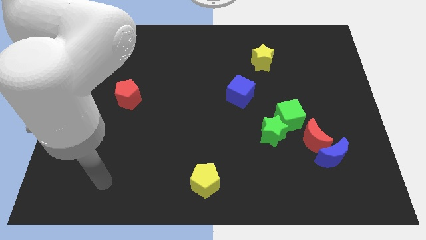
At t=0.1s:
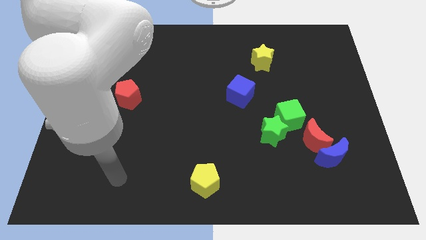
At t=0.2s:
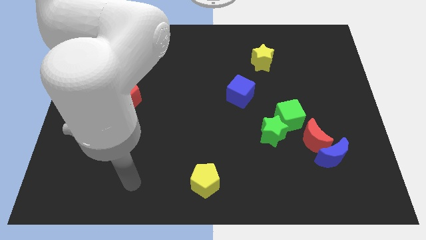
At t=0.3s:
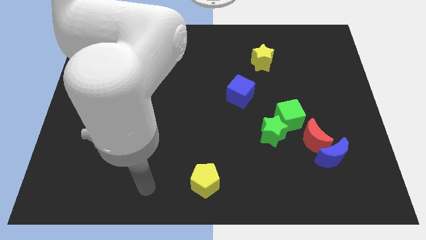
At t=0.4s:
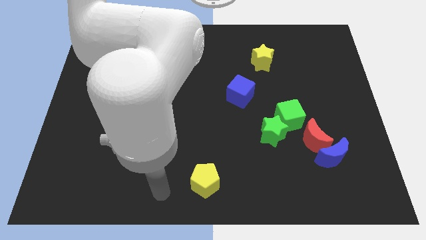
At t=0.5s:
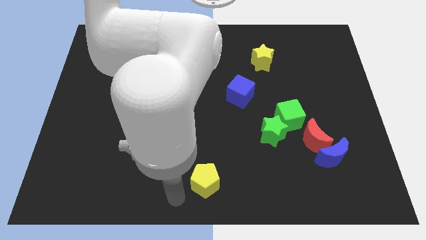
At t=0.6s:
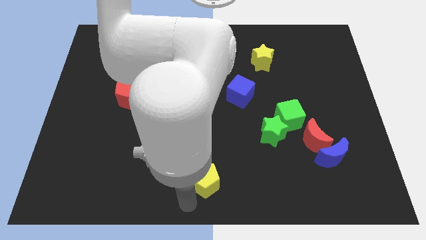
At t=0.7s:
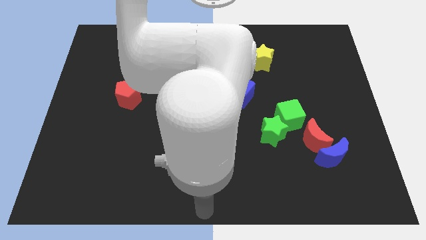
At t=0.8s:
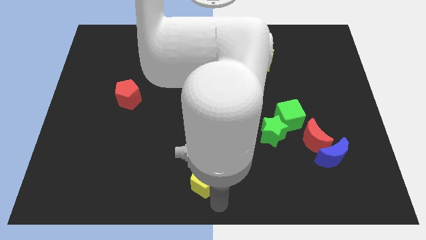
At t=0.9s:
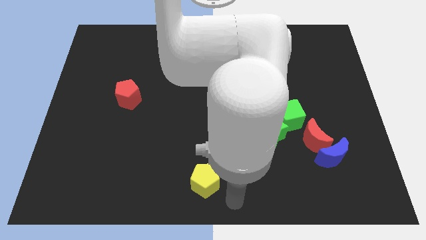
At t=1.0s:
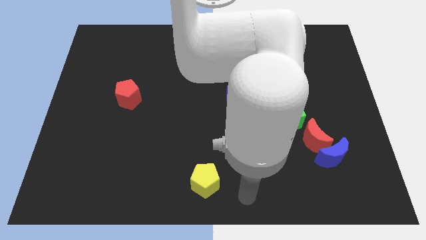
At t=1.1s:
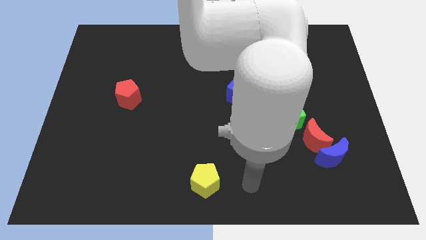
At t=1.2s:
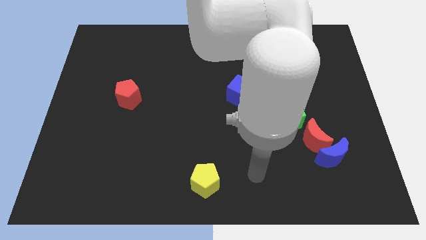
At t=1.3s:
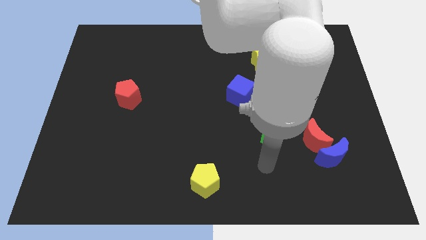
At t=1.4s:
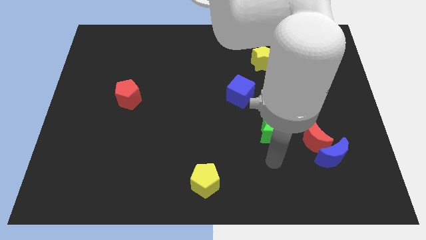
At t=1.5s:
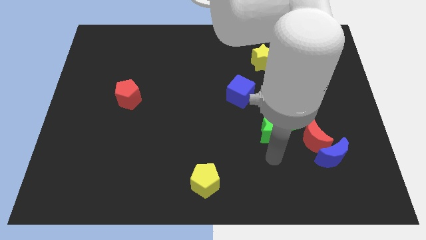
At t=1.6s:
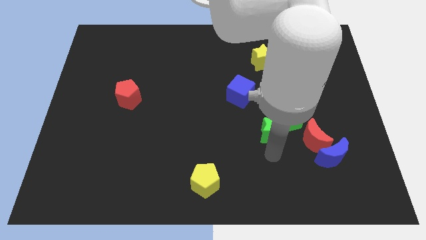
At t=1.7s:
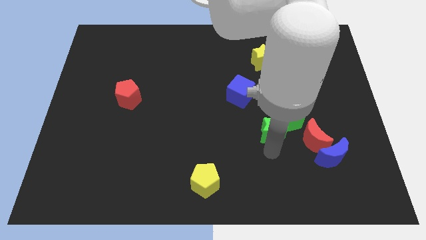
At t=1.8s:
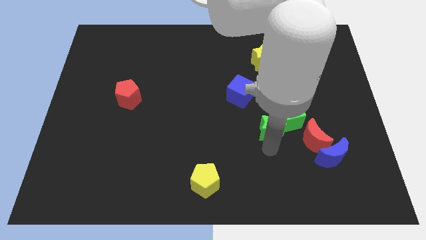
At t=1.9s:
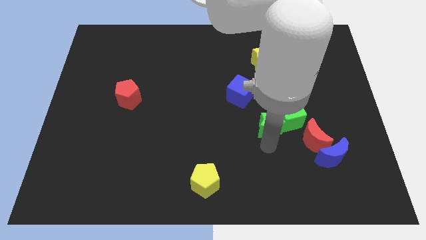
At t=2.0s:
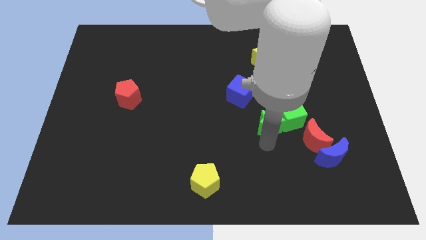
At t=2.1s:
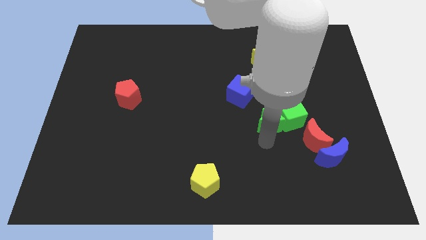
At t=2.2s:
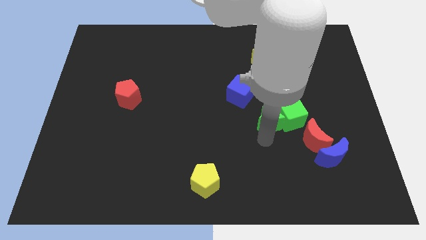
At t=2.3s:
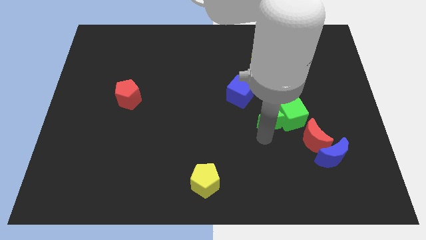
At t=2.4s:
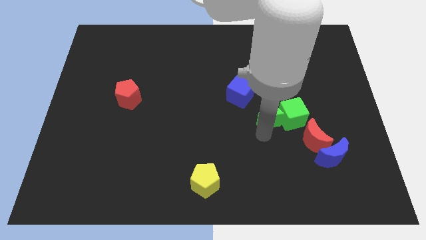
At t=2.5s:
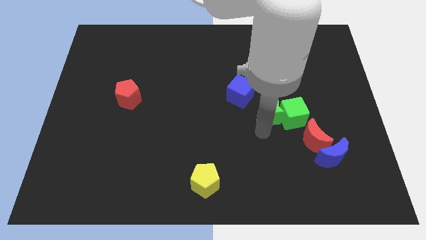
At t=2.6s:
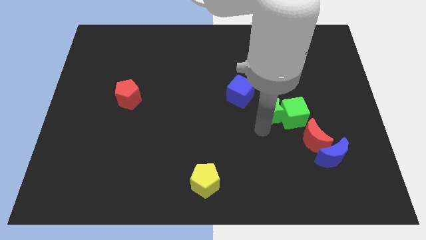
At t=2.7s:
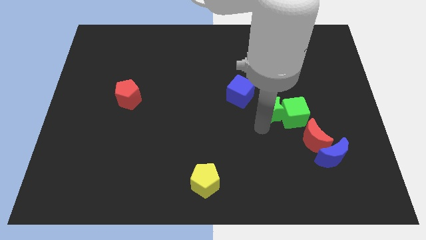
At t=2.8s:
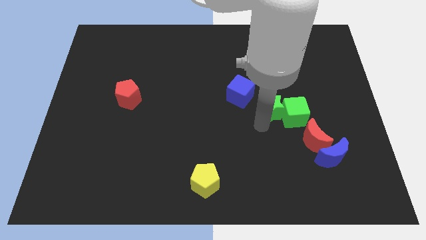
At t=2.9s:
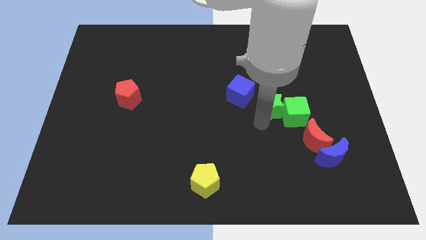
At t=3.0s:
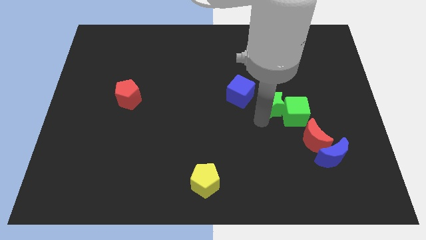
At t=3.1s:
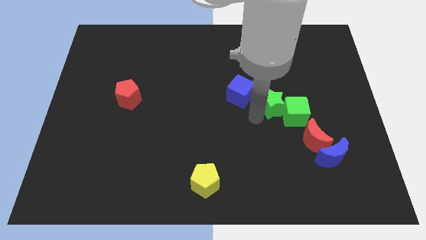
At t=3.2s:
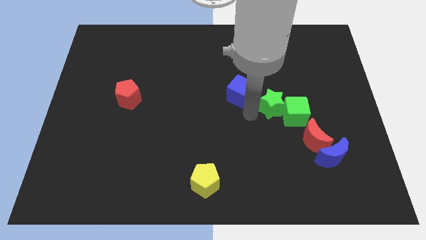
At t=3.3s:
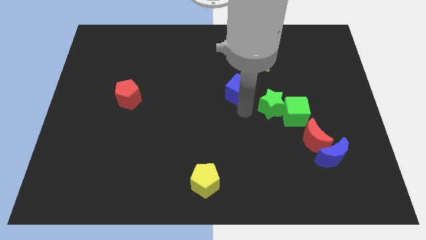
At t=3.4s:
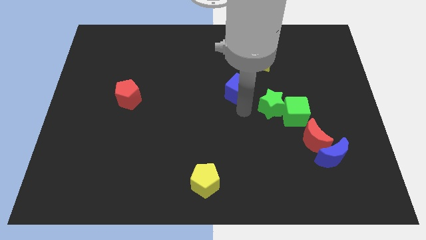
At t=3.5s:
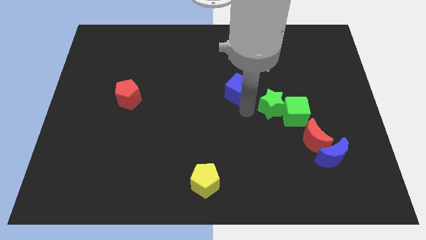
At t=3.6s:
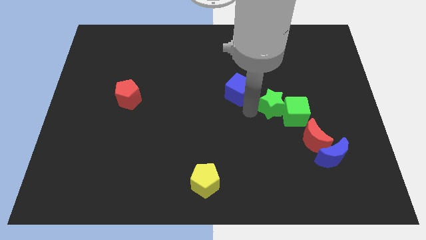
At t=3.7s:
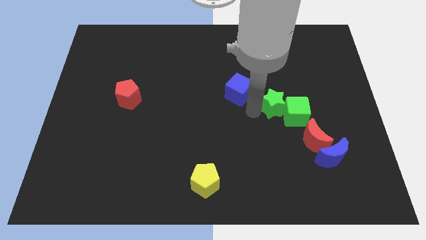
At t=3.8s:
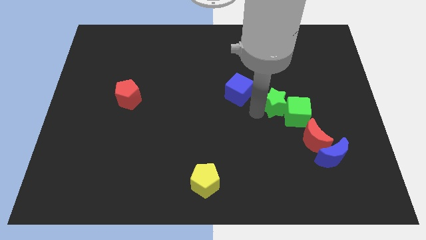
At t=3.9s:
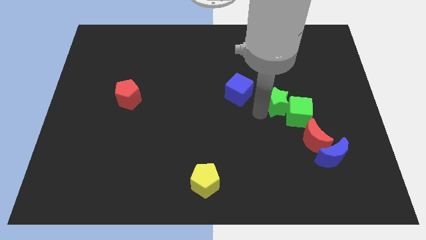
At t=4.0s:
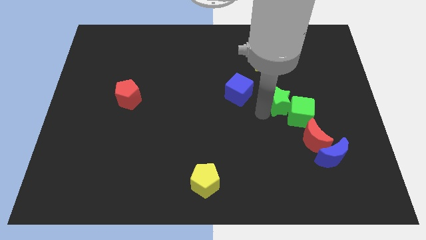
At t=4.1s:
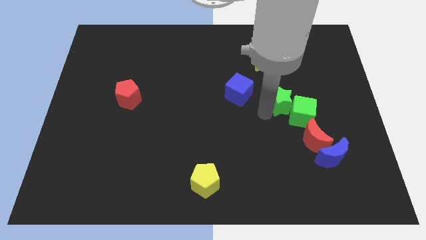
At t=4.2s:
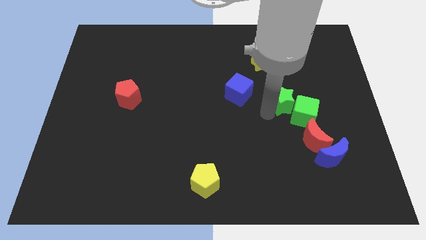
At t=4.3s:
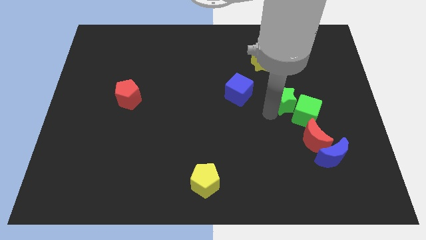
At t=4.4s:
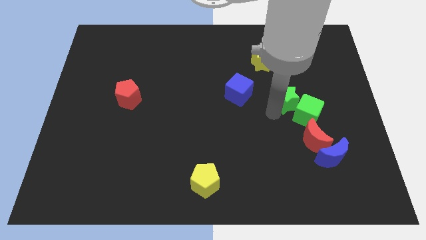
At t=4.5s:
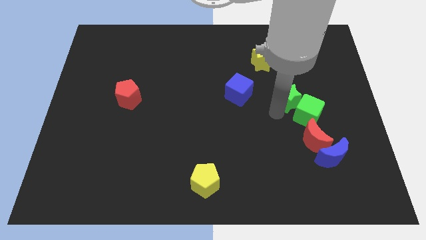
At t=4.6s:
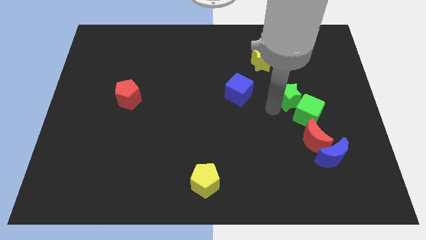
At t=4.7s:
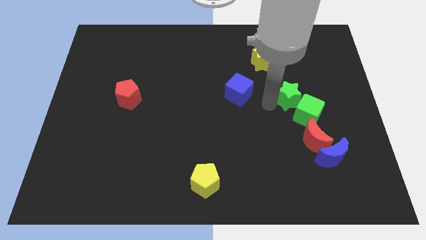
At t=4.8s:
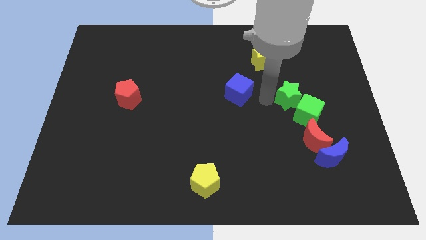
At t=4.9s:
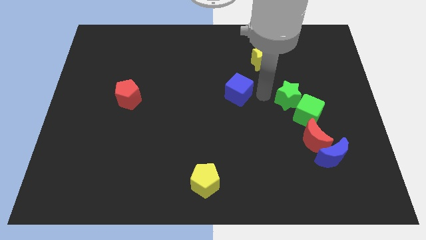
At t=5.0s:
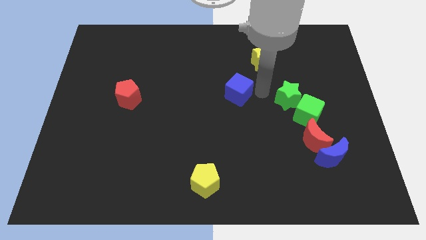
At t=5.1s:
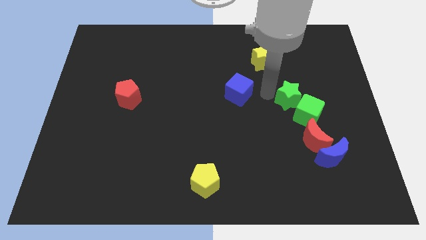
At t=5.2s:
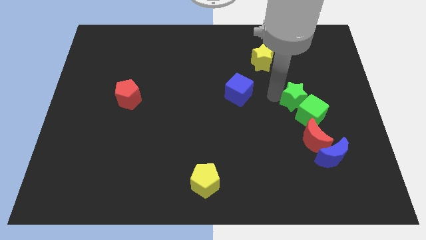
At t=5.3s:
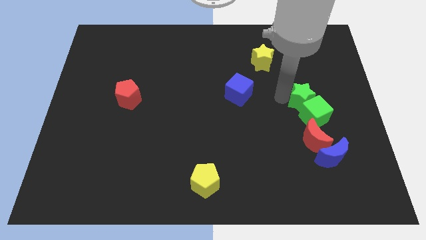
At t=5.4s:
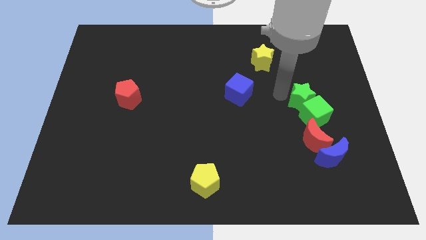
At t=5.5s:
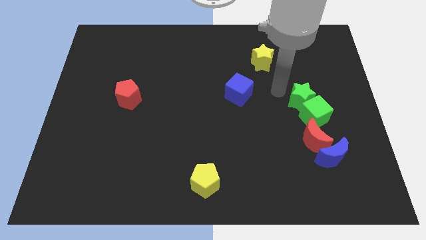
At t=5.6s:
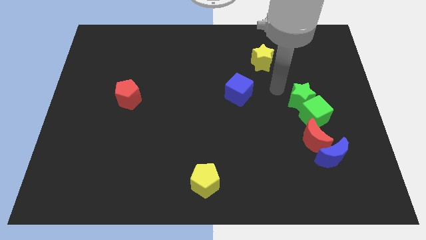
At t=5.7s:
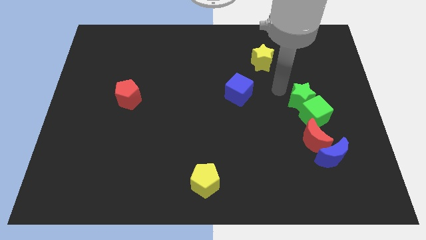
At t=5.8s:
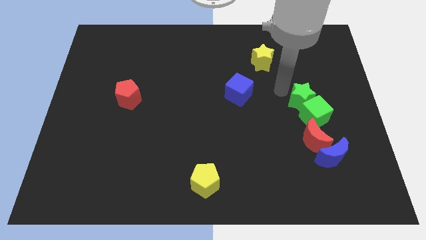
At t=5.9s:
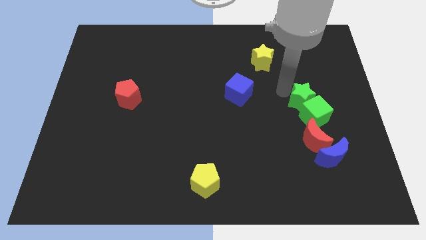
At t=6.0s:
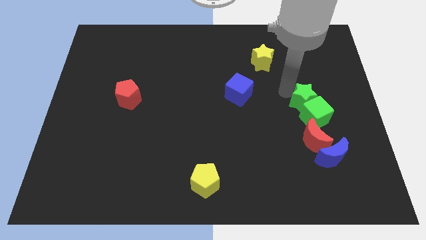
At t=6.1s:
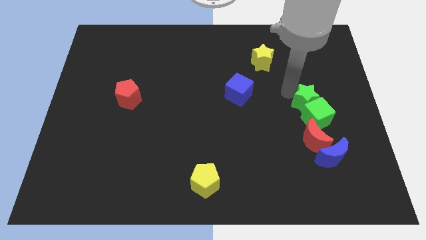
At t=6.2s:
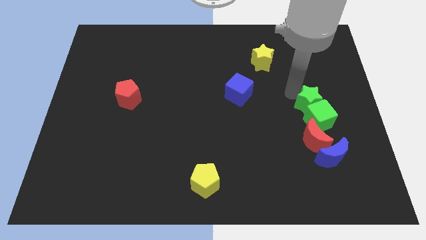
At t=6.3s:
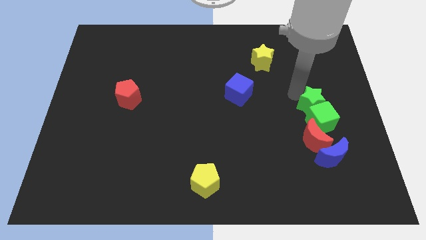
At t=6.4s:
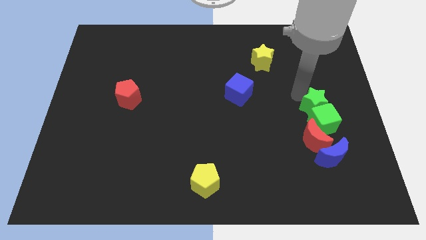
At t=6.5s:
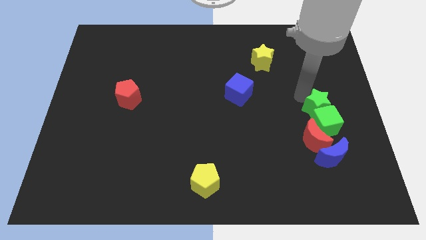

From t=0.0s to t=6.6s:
push the green star to the top right of the red moon
